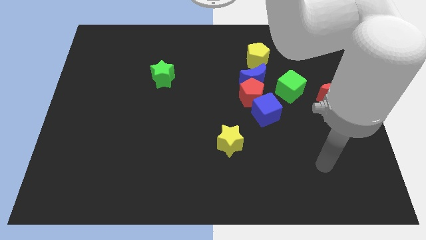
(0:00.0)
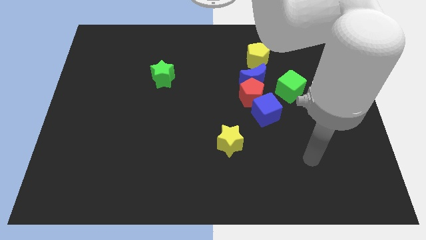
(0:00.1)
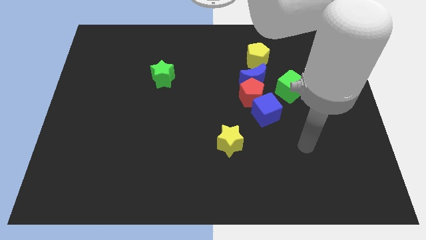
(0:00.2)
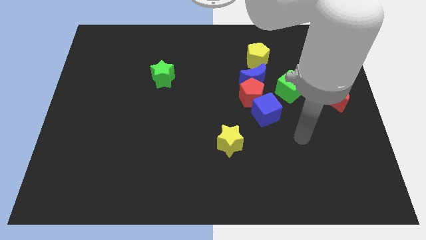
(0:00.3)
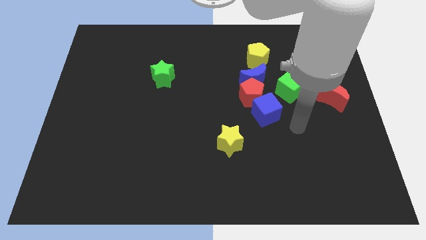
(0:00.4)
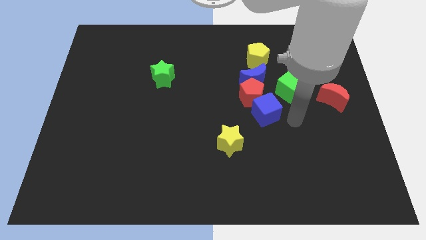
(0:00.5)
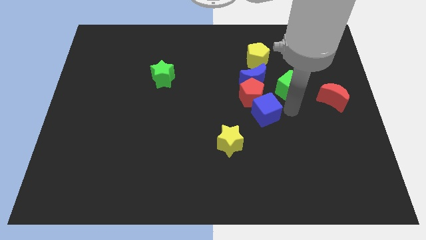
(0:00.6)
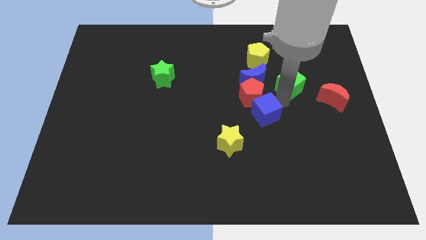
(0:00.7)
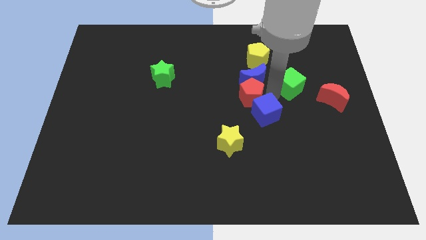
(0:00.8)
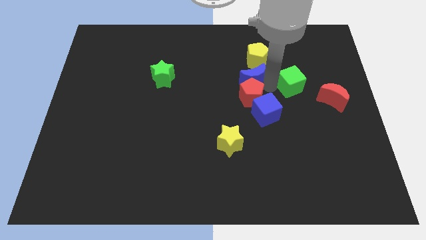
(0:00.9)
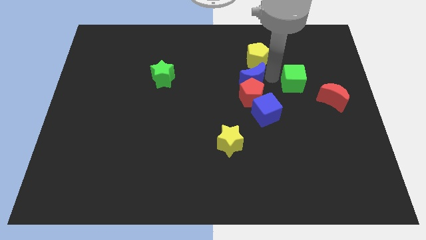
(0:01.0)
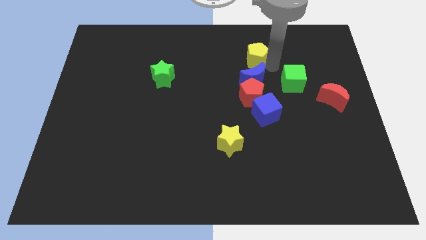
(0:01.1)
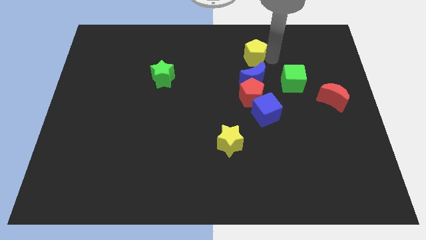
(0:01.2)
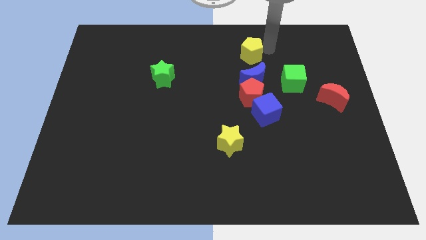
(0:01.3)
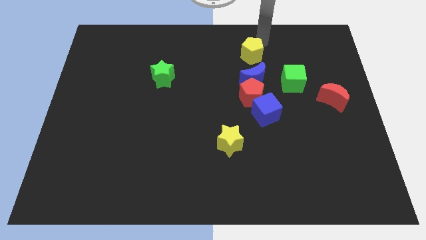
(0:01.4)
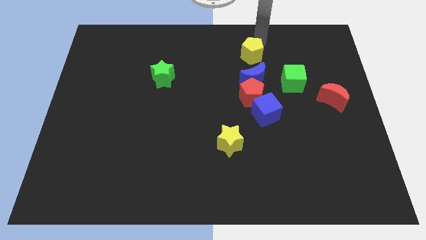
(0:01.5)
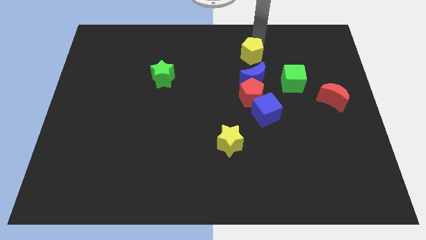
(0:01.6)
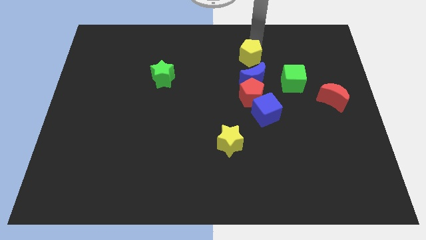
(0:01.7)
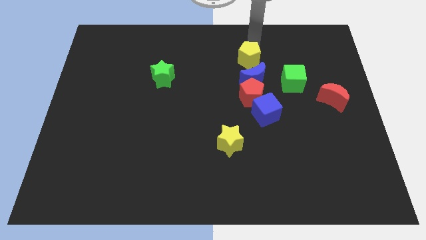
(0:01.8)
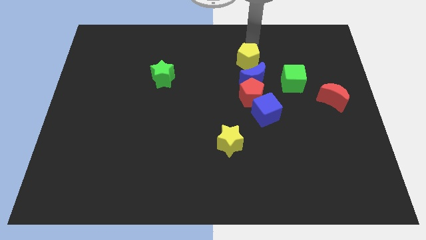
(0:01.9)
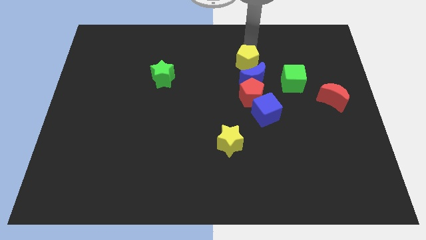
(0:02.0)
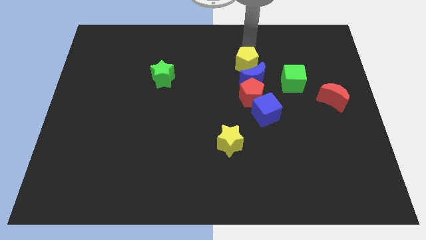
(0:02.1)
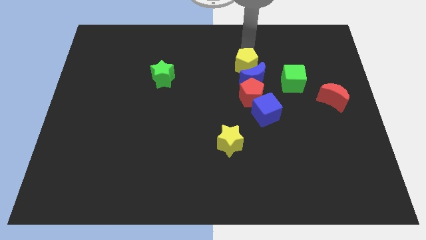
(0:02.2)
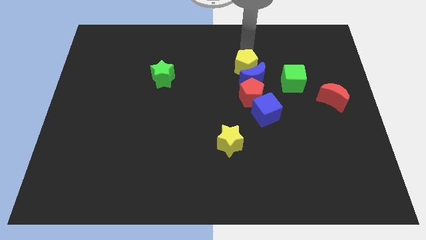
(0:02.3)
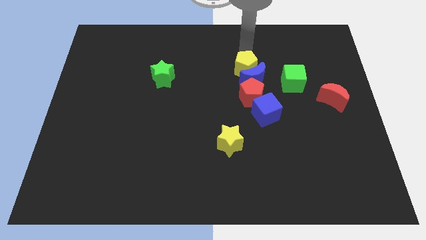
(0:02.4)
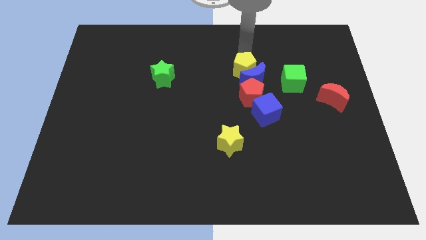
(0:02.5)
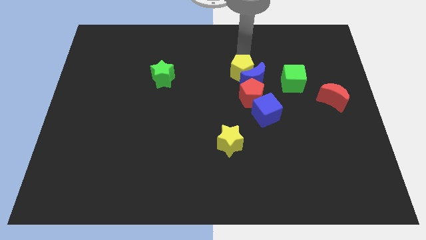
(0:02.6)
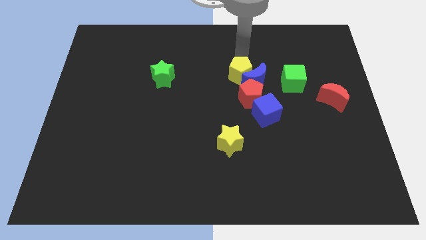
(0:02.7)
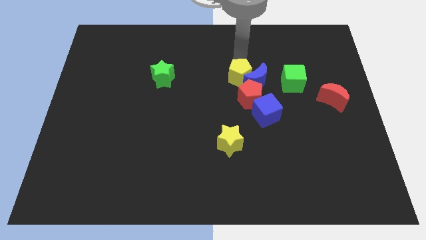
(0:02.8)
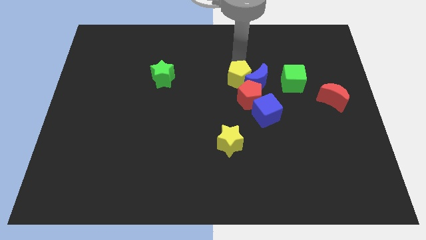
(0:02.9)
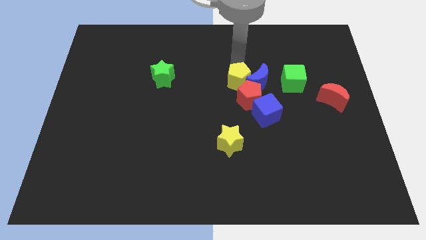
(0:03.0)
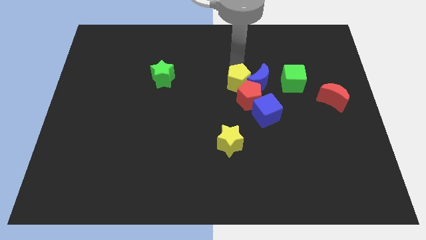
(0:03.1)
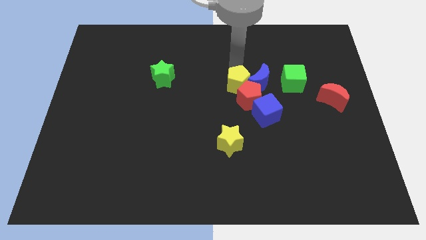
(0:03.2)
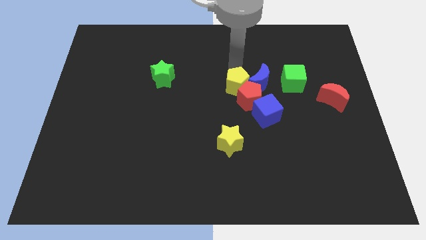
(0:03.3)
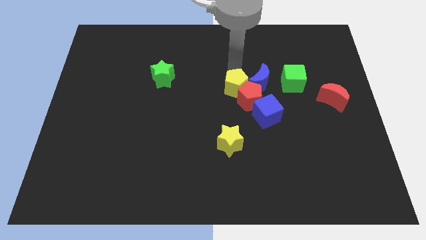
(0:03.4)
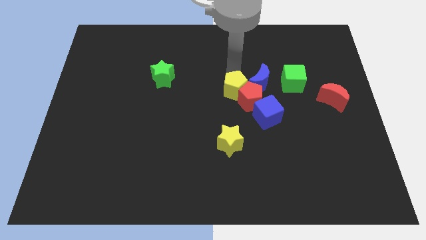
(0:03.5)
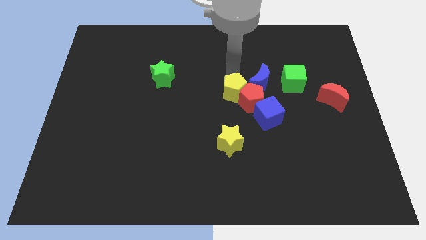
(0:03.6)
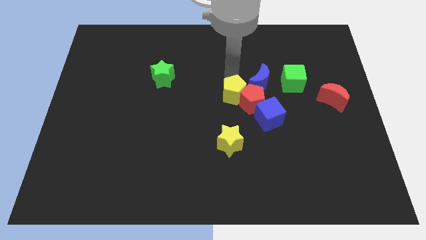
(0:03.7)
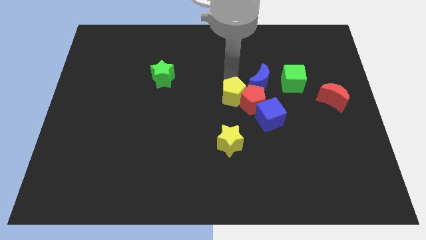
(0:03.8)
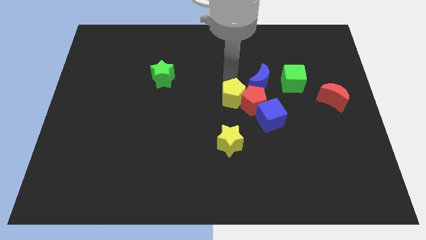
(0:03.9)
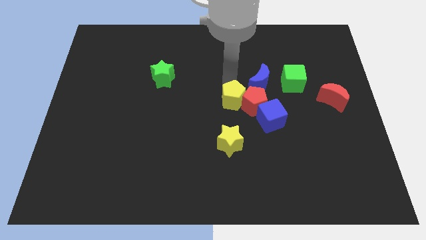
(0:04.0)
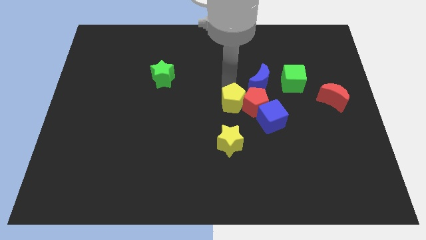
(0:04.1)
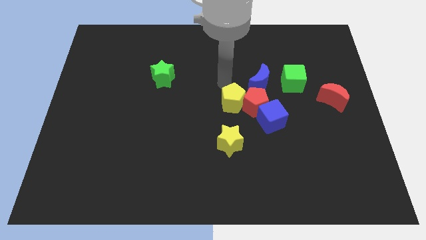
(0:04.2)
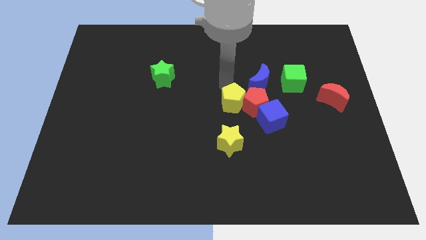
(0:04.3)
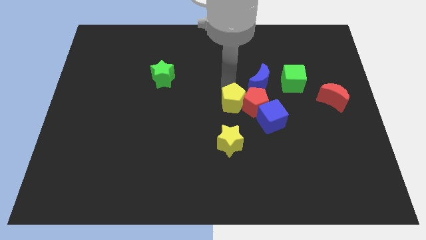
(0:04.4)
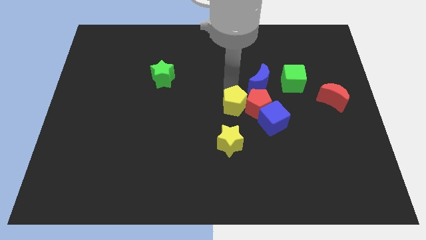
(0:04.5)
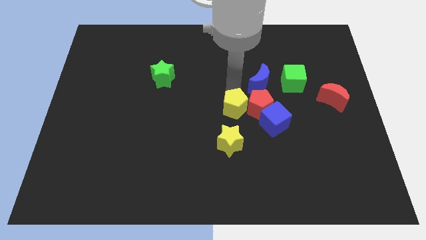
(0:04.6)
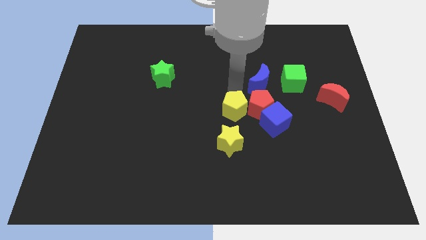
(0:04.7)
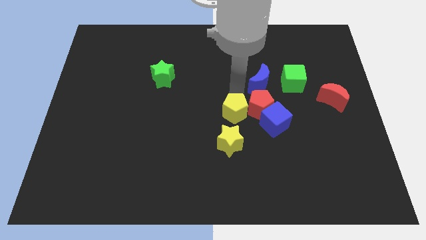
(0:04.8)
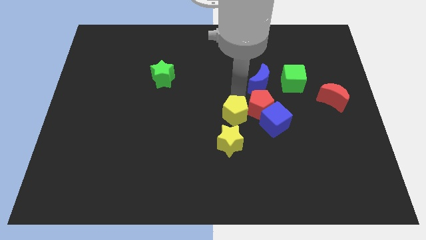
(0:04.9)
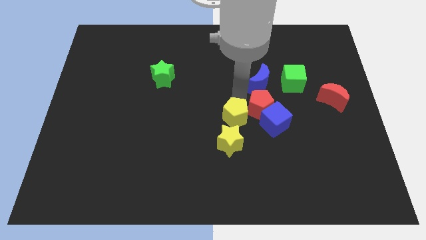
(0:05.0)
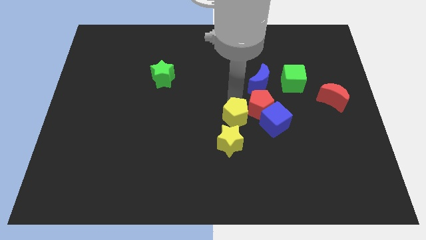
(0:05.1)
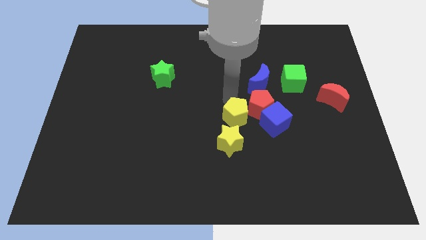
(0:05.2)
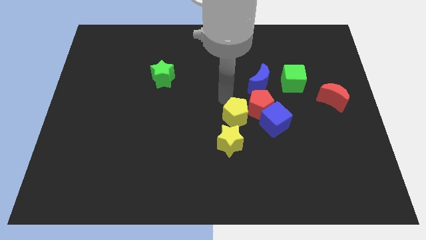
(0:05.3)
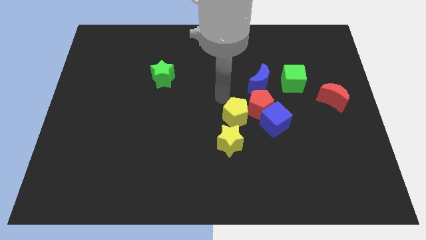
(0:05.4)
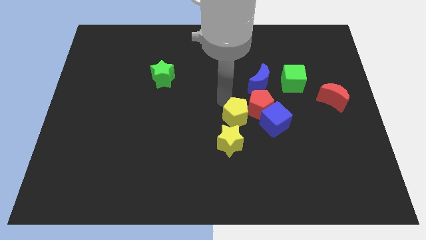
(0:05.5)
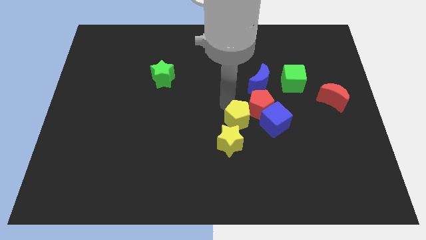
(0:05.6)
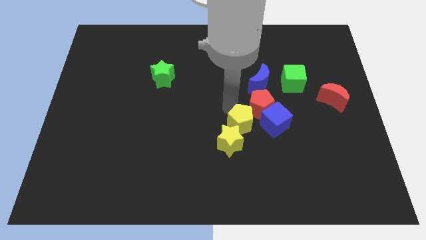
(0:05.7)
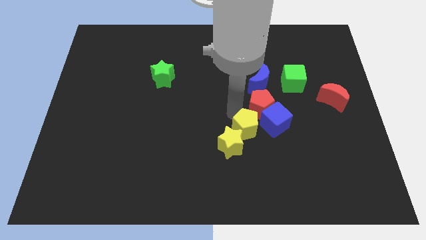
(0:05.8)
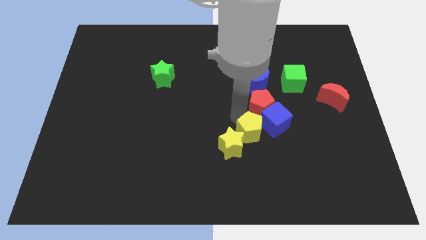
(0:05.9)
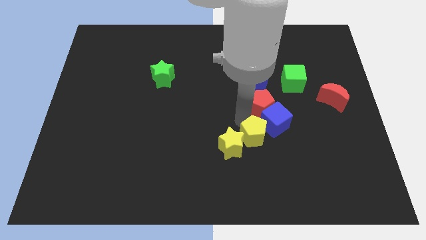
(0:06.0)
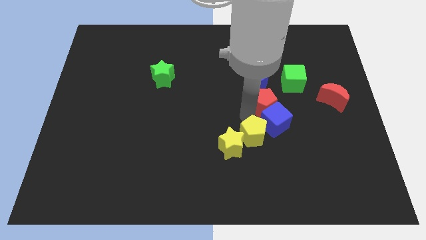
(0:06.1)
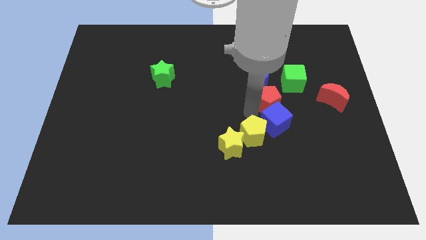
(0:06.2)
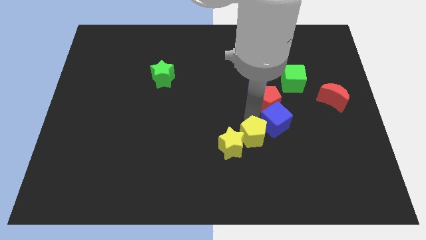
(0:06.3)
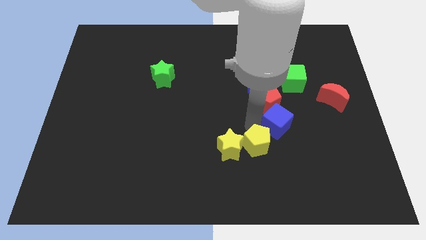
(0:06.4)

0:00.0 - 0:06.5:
move the yellow pentagon to the bottom right of the yellow star
